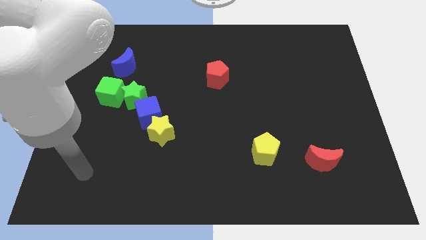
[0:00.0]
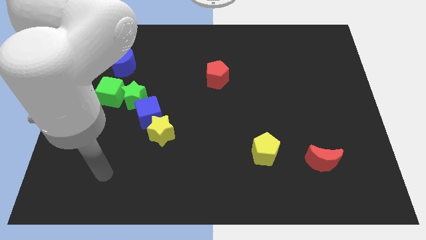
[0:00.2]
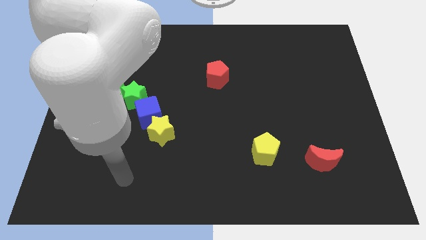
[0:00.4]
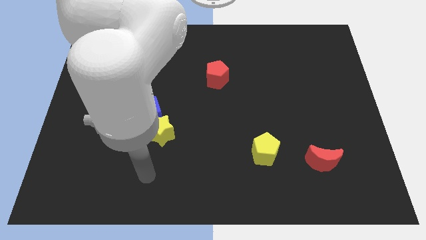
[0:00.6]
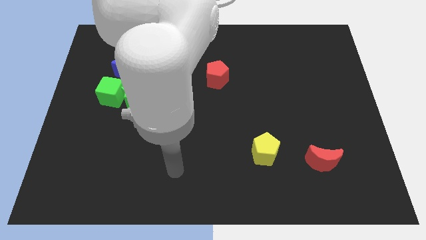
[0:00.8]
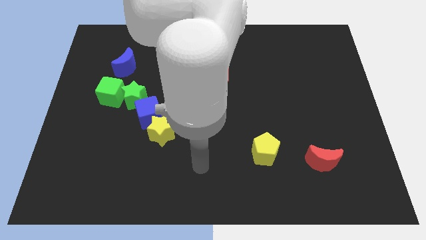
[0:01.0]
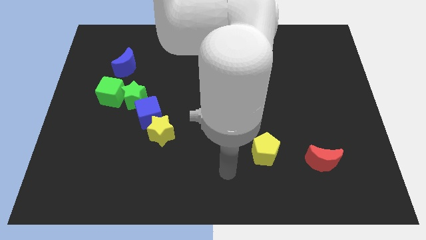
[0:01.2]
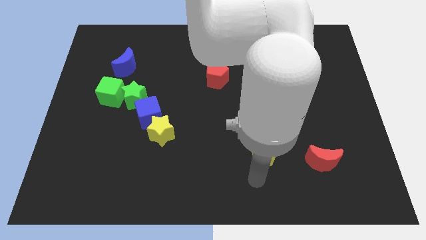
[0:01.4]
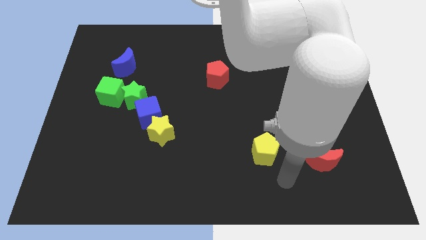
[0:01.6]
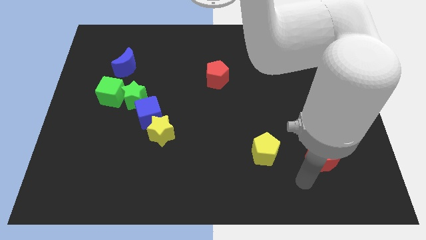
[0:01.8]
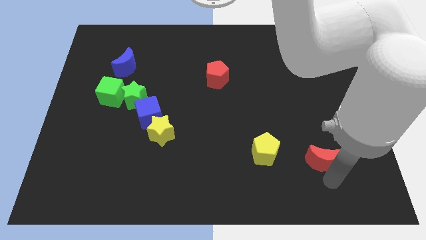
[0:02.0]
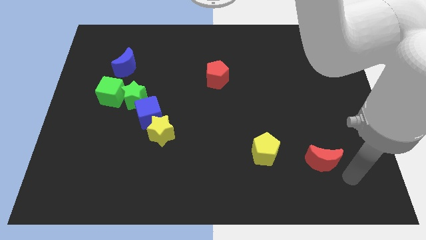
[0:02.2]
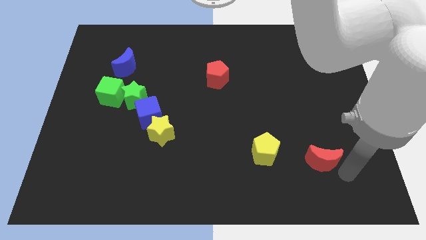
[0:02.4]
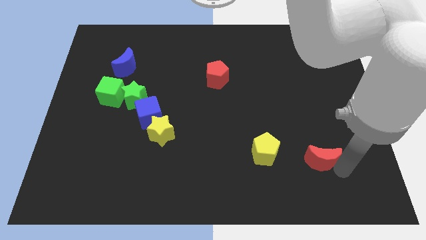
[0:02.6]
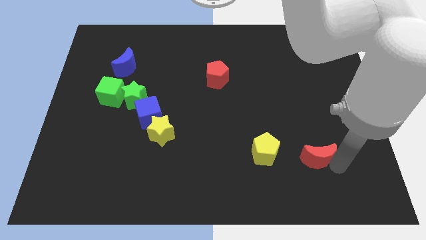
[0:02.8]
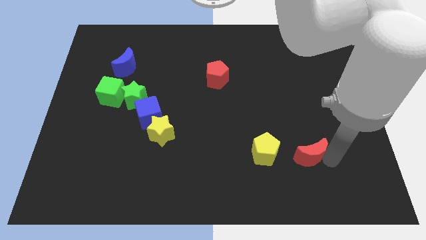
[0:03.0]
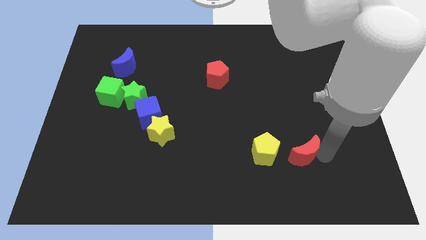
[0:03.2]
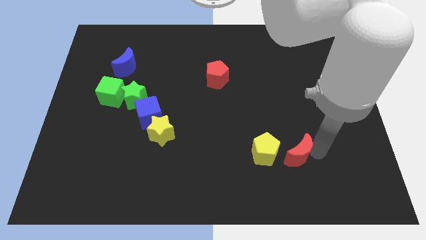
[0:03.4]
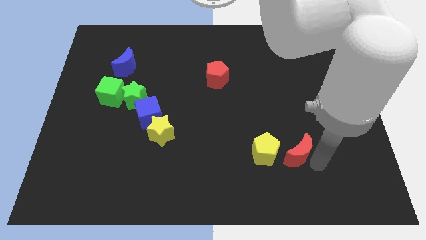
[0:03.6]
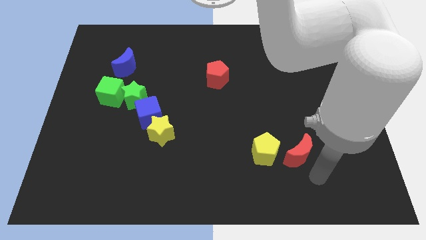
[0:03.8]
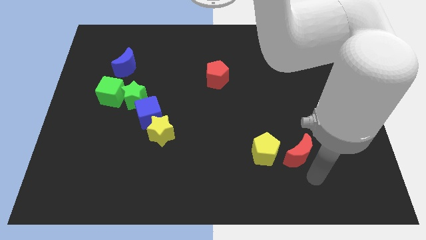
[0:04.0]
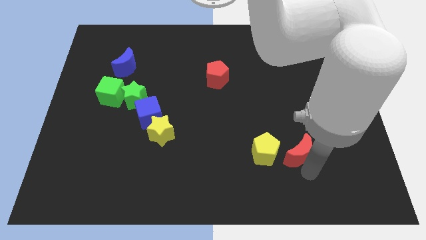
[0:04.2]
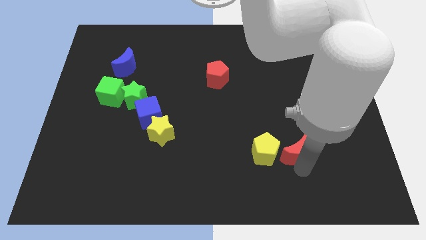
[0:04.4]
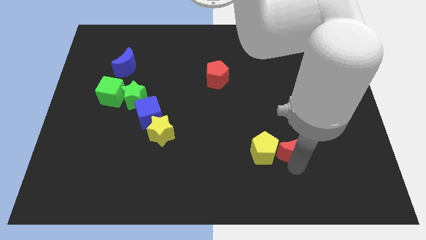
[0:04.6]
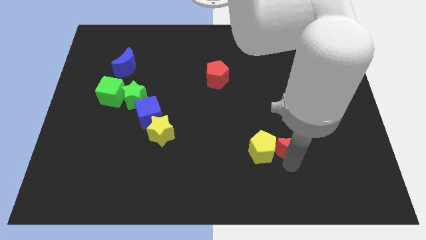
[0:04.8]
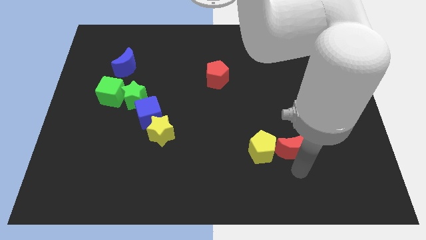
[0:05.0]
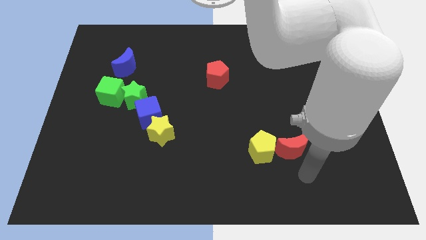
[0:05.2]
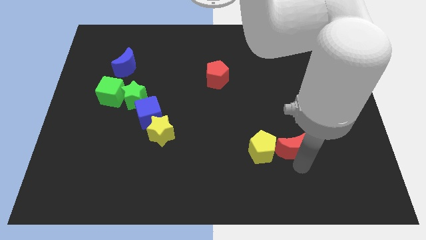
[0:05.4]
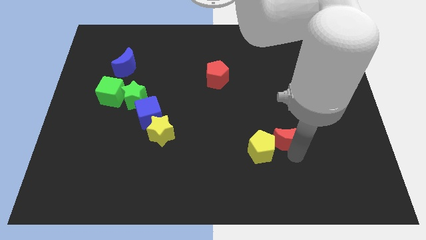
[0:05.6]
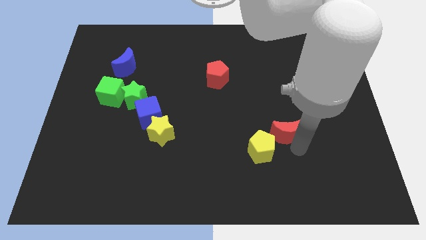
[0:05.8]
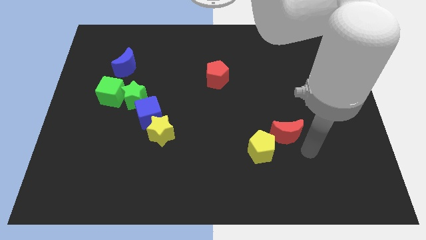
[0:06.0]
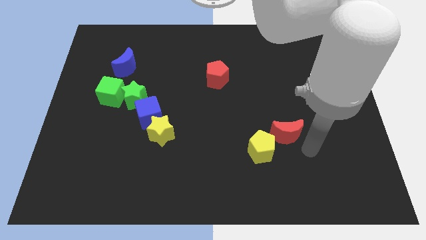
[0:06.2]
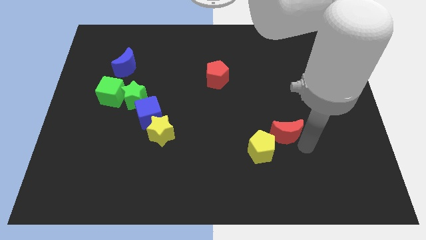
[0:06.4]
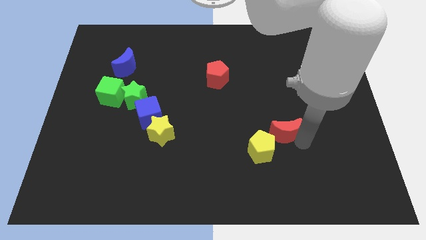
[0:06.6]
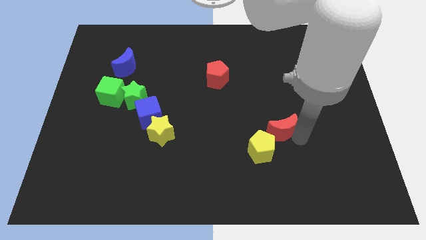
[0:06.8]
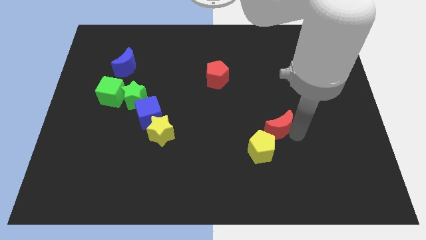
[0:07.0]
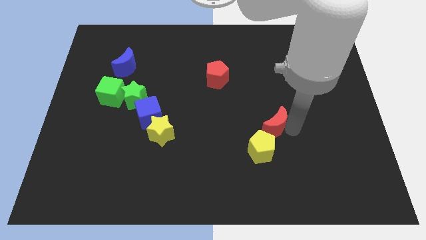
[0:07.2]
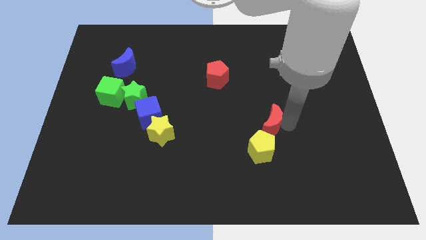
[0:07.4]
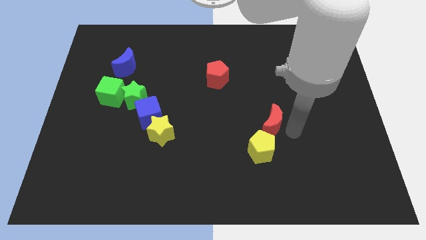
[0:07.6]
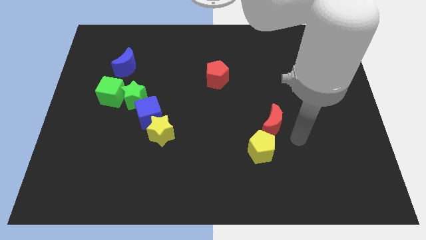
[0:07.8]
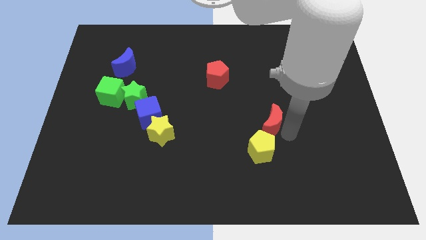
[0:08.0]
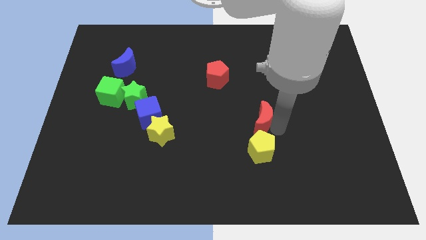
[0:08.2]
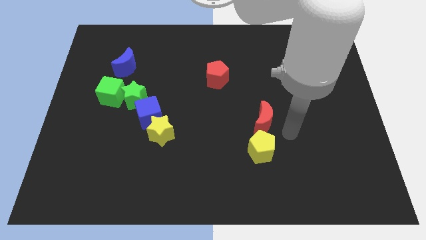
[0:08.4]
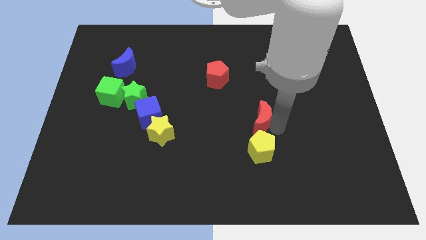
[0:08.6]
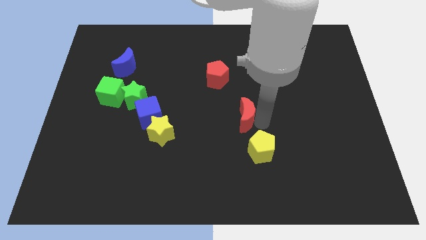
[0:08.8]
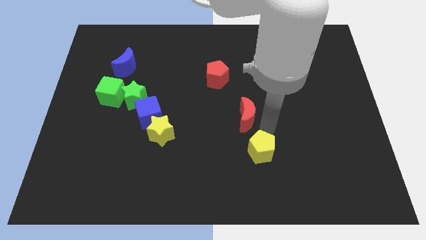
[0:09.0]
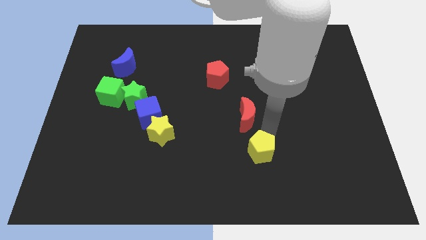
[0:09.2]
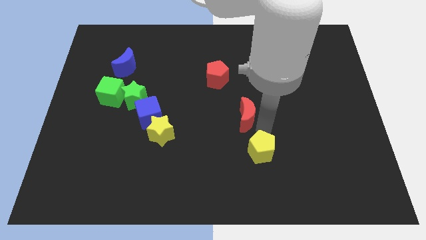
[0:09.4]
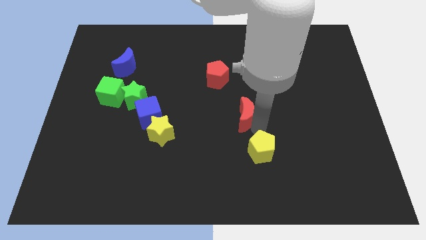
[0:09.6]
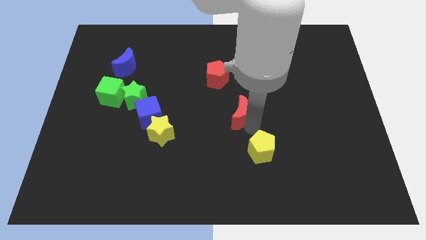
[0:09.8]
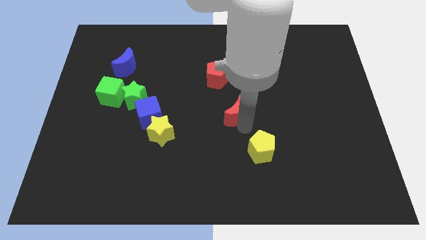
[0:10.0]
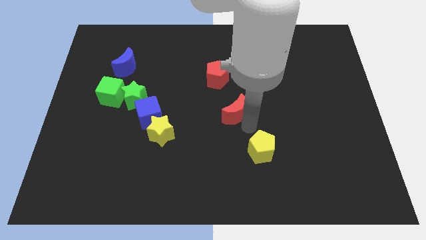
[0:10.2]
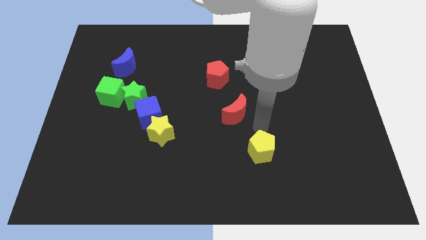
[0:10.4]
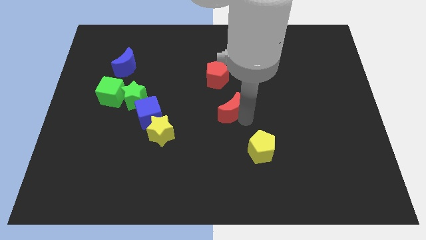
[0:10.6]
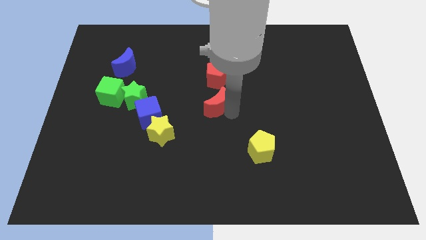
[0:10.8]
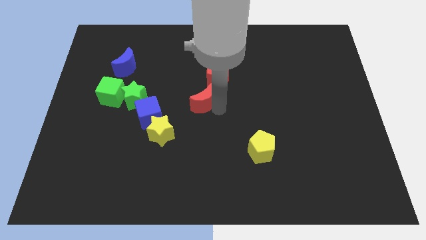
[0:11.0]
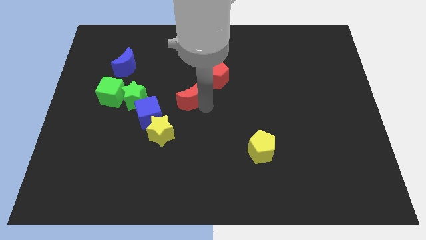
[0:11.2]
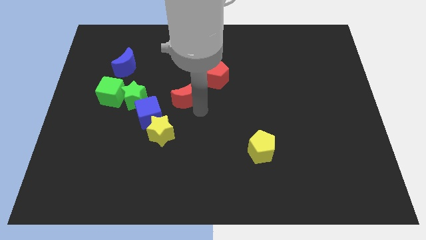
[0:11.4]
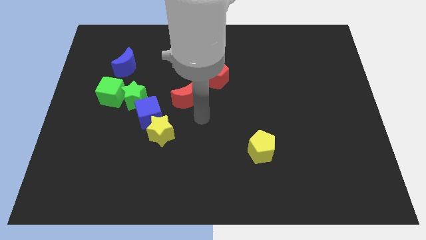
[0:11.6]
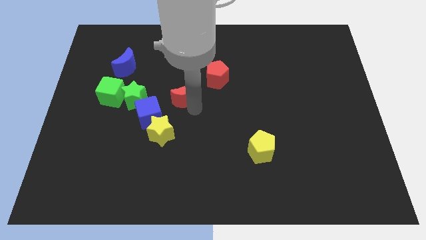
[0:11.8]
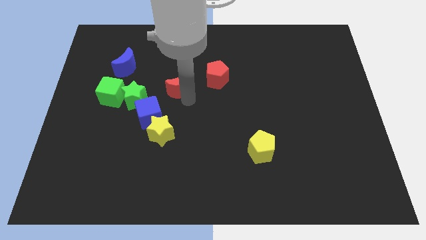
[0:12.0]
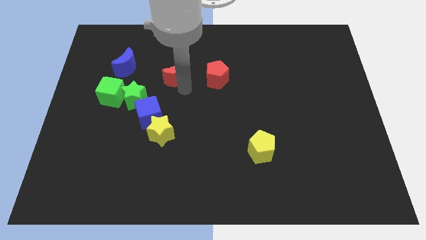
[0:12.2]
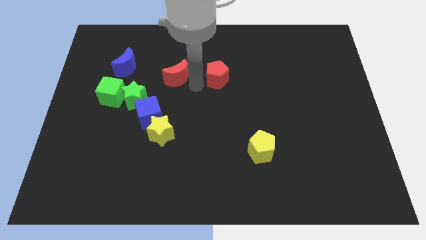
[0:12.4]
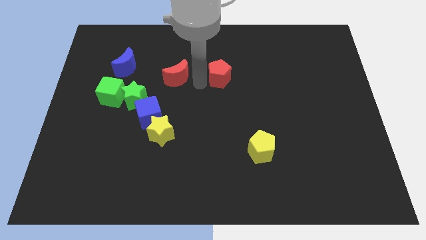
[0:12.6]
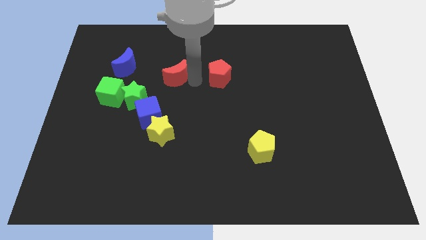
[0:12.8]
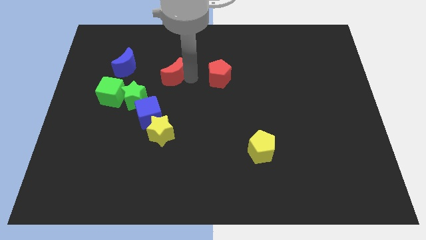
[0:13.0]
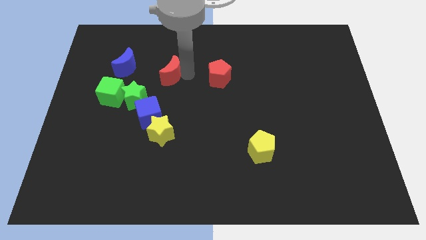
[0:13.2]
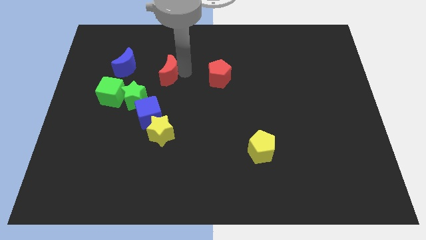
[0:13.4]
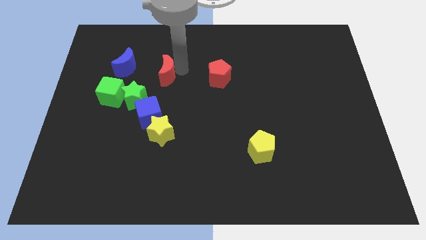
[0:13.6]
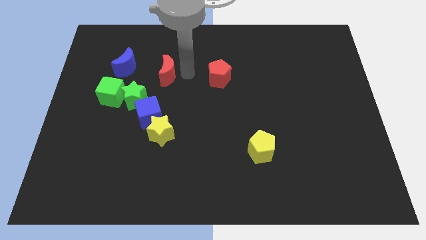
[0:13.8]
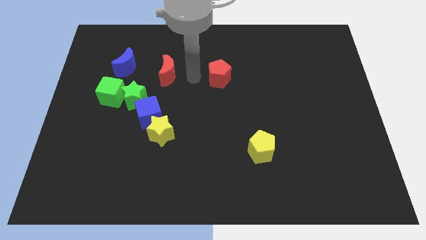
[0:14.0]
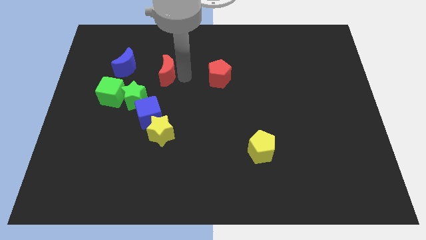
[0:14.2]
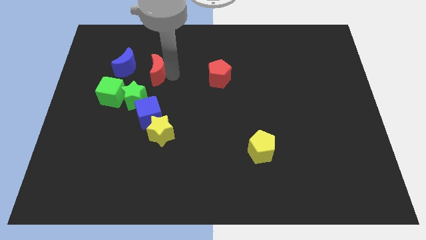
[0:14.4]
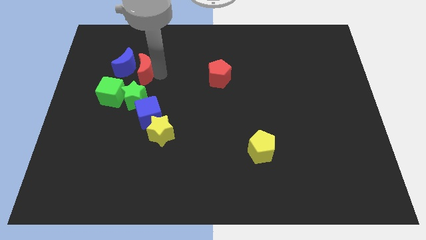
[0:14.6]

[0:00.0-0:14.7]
move the red moon close to the blue moon
